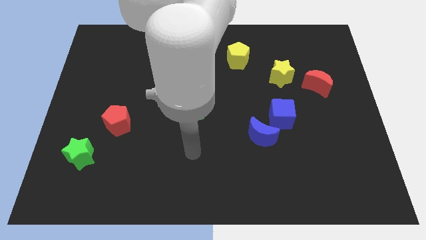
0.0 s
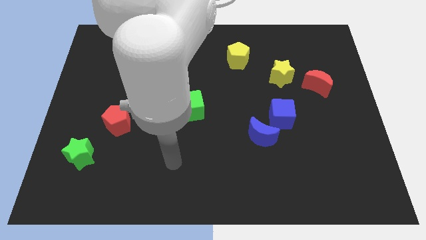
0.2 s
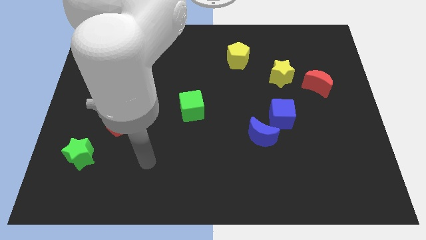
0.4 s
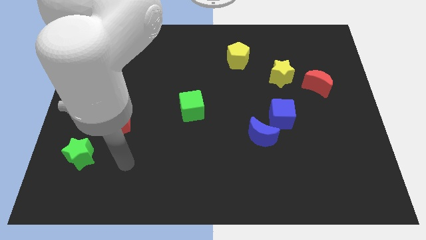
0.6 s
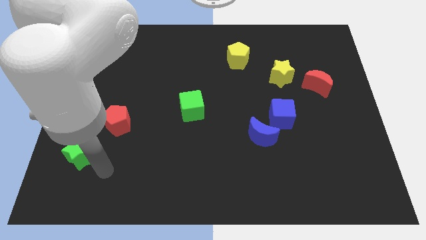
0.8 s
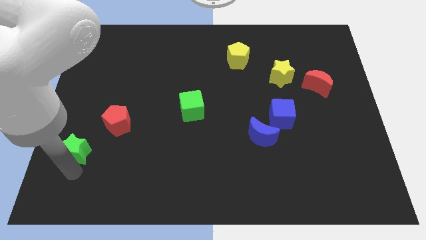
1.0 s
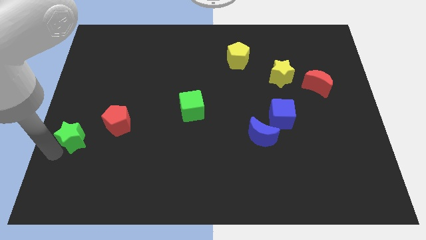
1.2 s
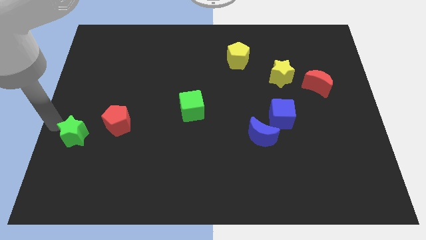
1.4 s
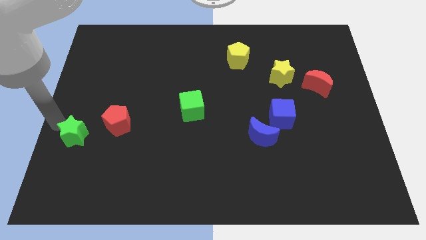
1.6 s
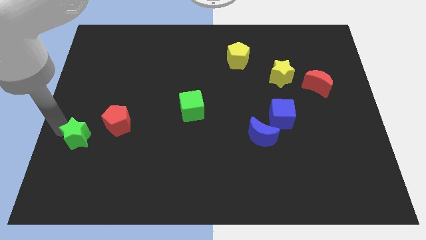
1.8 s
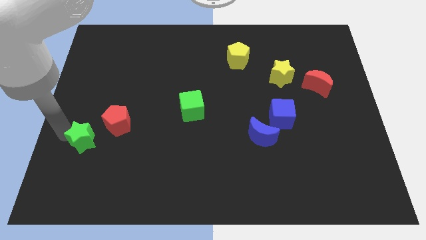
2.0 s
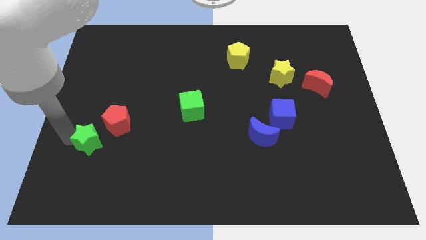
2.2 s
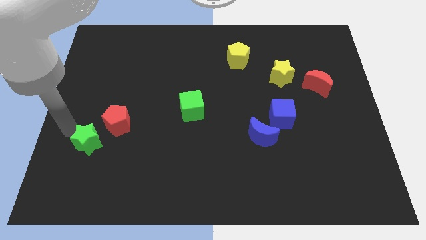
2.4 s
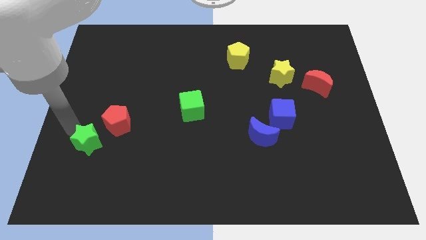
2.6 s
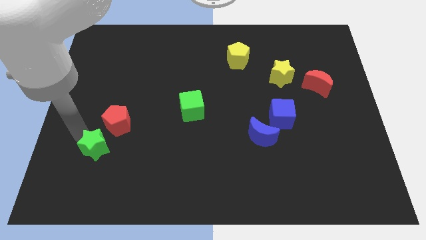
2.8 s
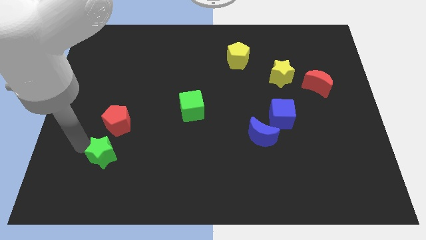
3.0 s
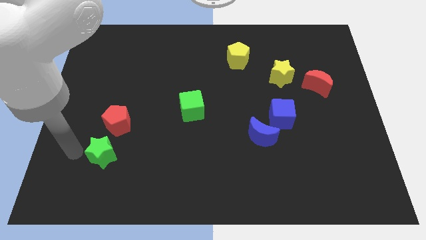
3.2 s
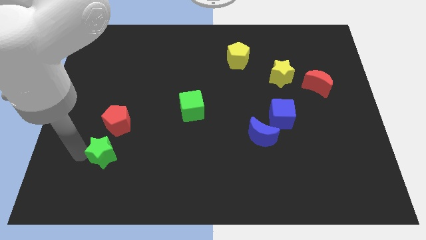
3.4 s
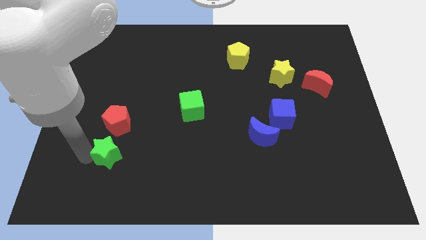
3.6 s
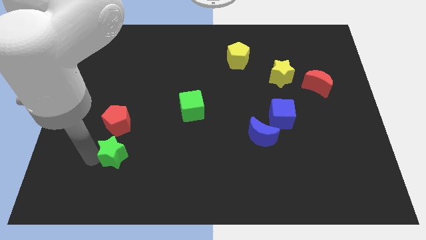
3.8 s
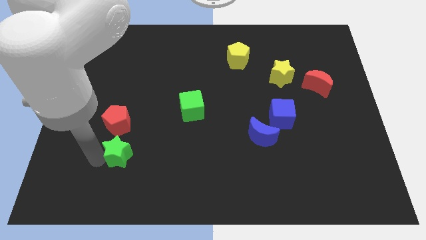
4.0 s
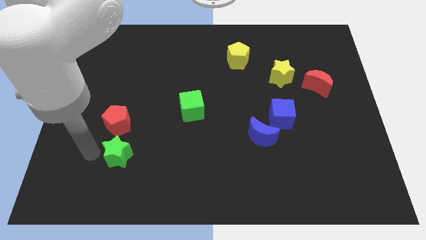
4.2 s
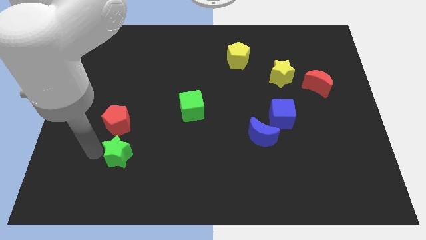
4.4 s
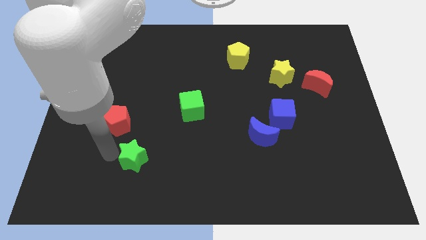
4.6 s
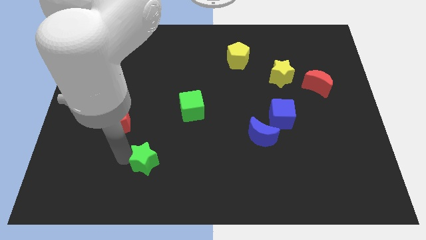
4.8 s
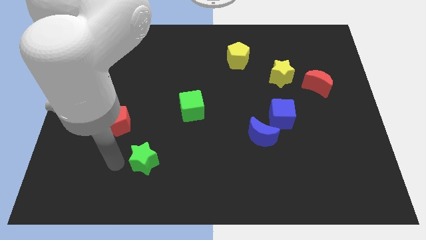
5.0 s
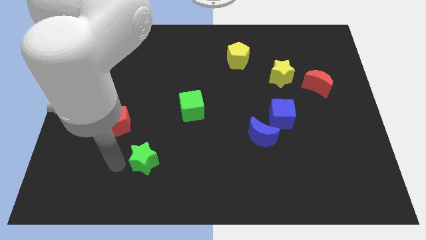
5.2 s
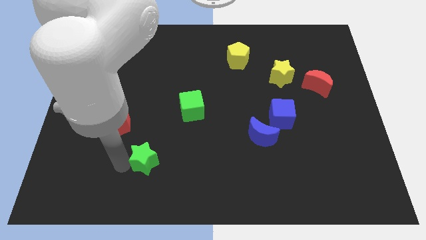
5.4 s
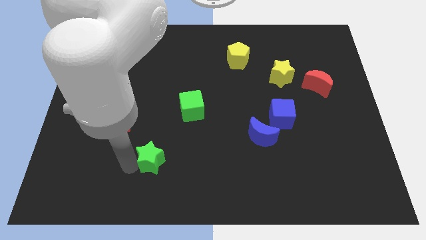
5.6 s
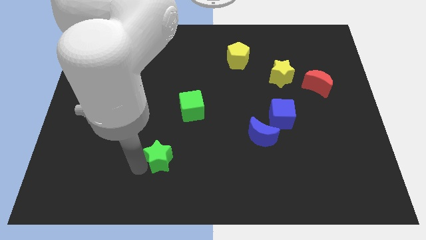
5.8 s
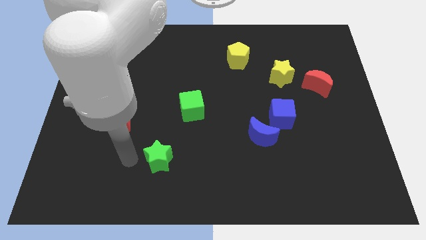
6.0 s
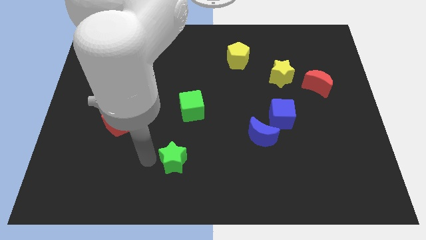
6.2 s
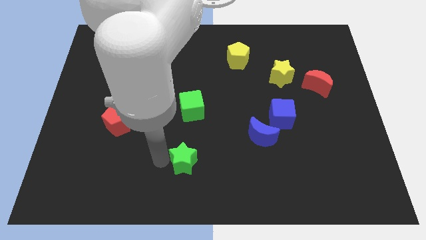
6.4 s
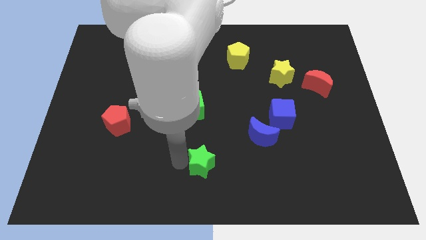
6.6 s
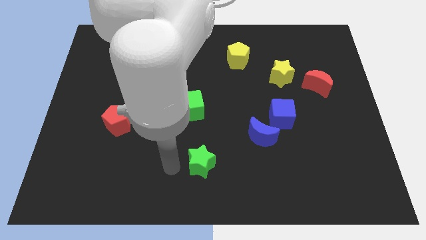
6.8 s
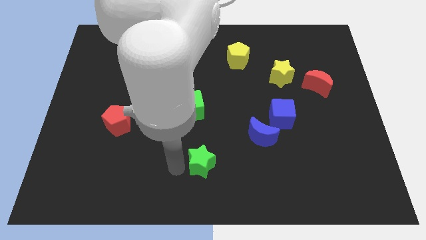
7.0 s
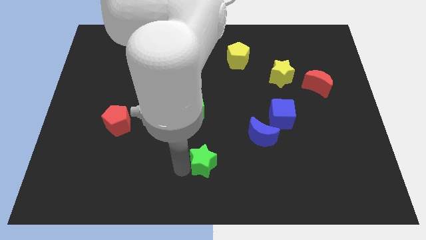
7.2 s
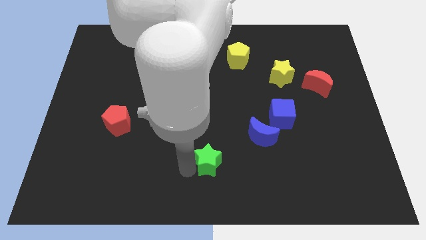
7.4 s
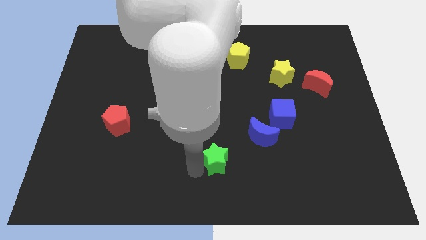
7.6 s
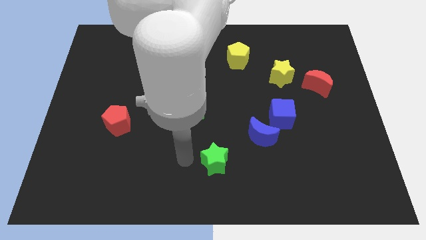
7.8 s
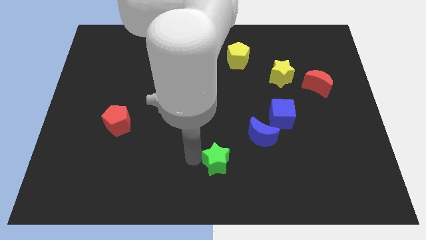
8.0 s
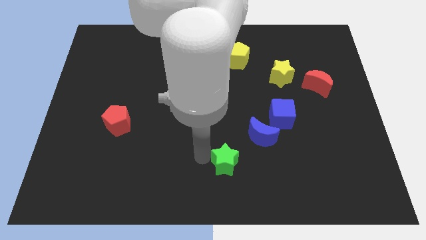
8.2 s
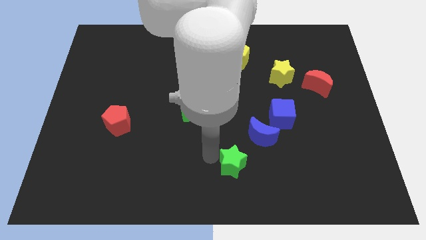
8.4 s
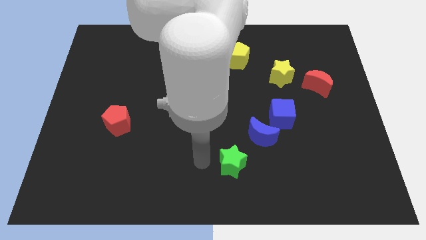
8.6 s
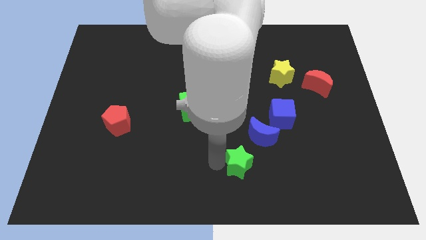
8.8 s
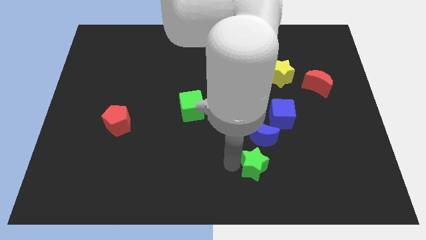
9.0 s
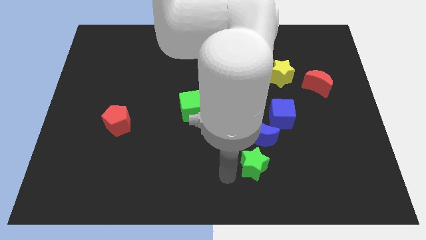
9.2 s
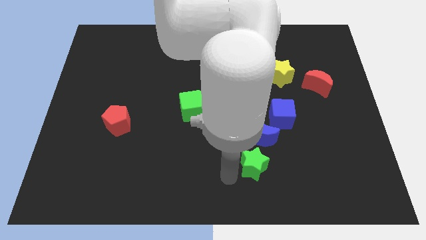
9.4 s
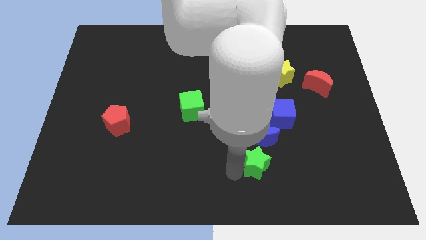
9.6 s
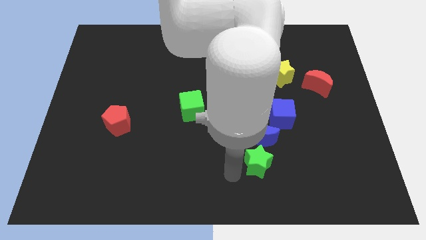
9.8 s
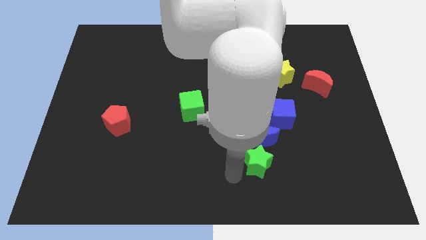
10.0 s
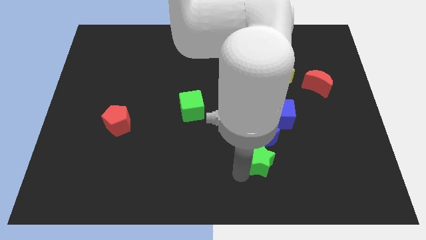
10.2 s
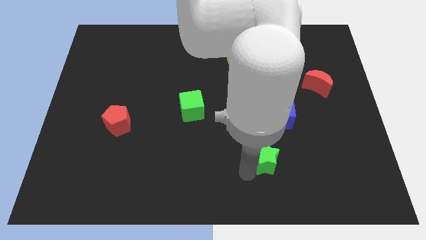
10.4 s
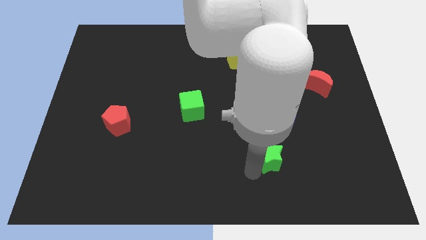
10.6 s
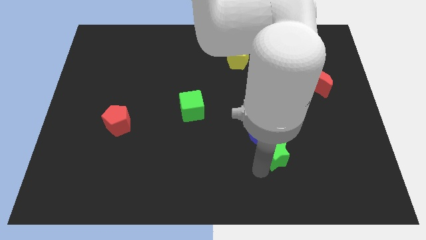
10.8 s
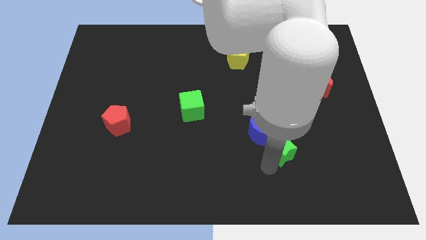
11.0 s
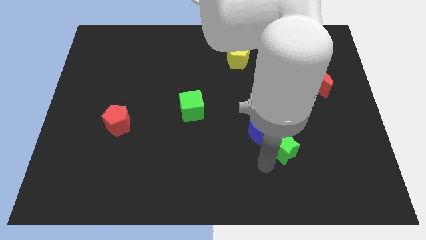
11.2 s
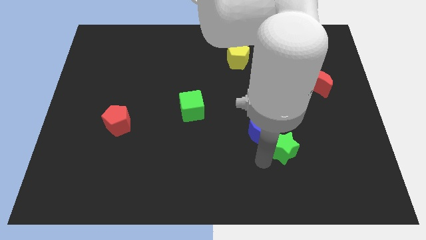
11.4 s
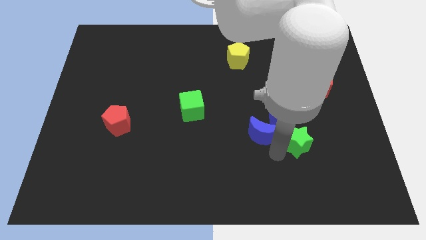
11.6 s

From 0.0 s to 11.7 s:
put the green star diagonally down and to the right of the blue cube

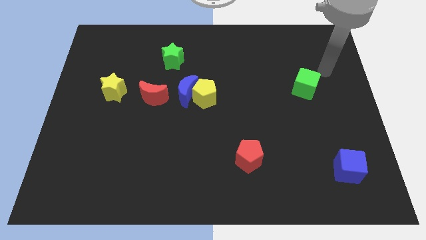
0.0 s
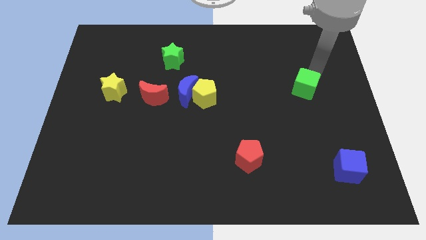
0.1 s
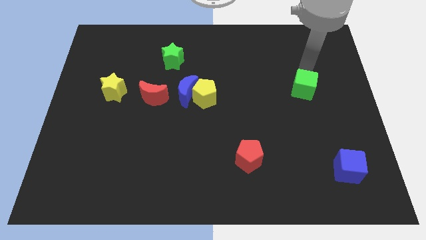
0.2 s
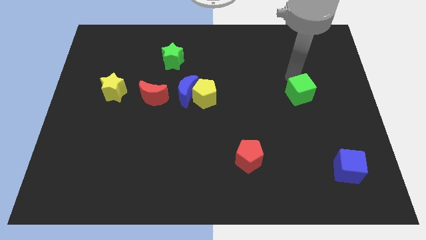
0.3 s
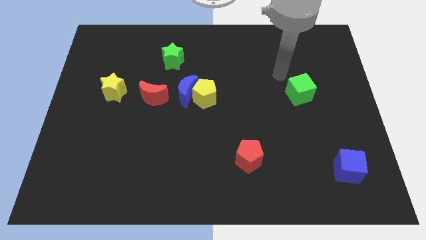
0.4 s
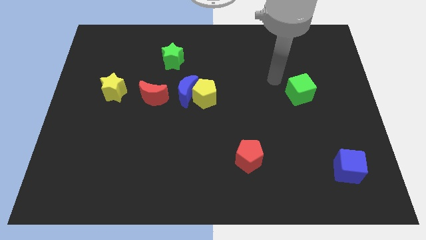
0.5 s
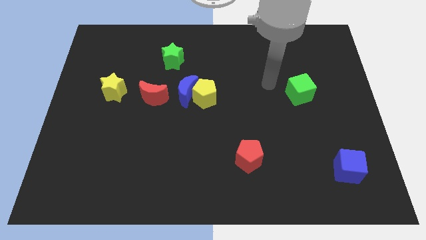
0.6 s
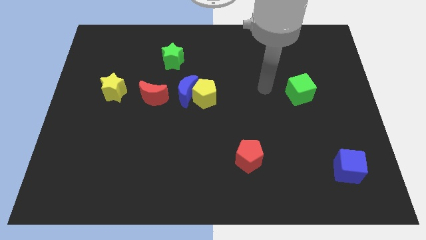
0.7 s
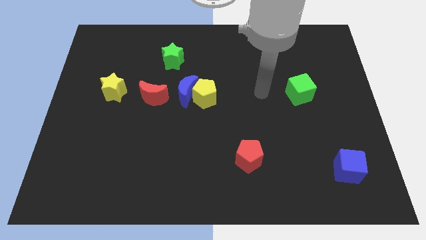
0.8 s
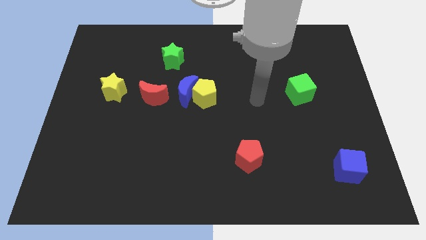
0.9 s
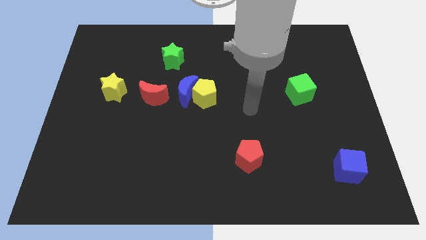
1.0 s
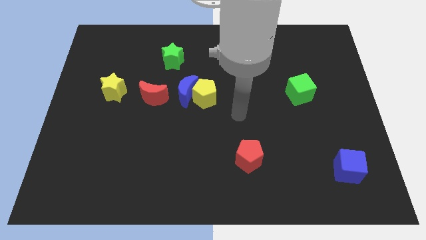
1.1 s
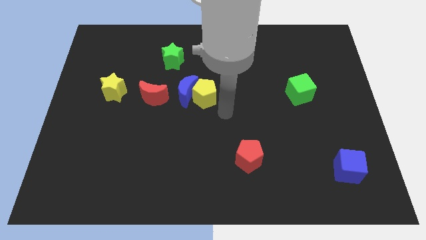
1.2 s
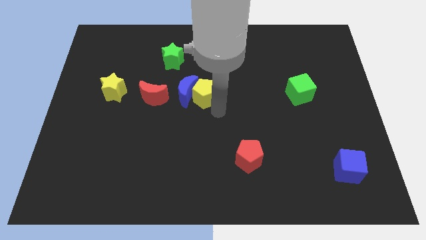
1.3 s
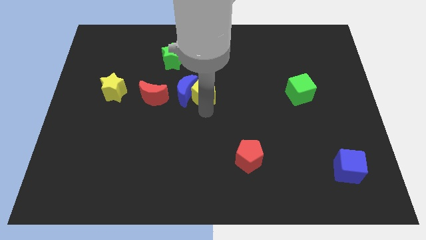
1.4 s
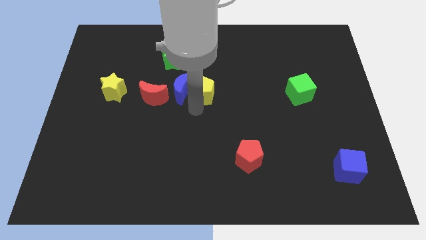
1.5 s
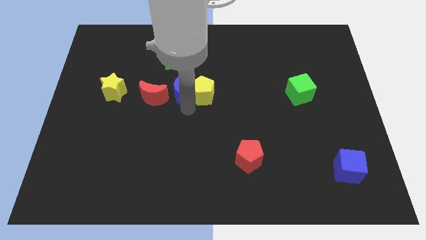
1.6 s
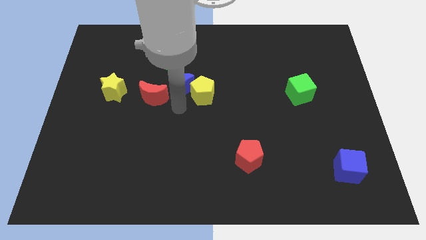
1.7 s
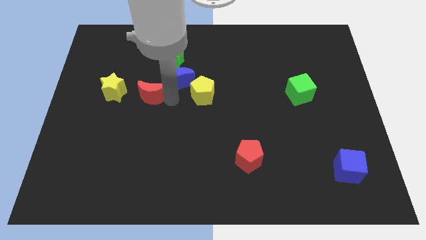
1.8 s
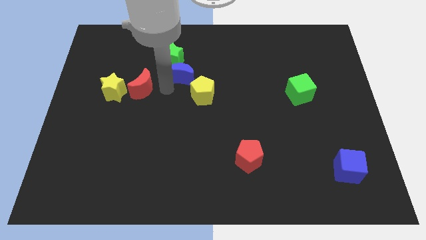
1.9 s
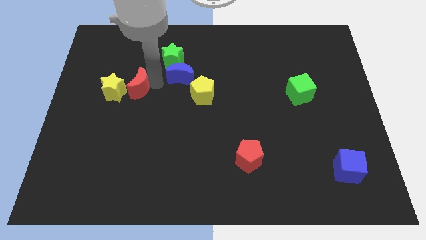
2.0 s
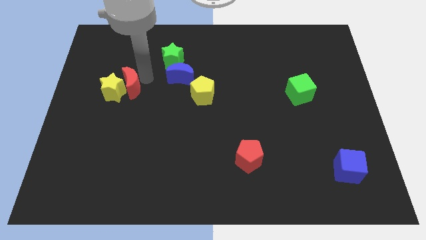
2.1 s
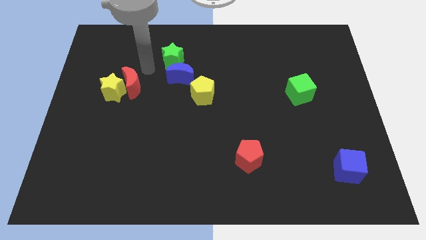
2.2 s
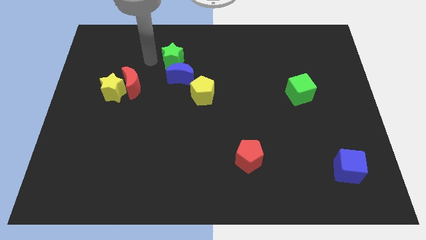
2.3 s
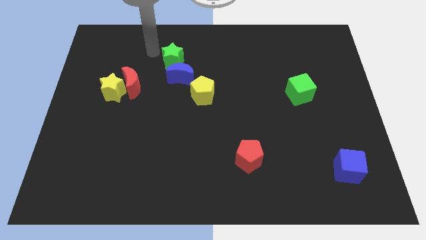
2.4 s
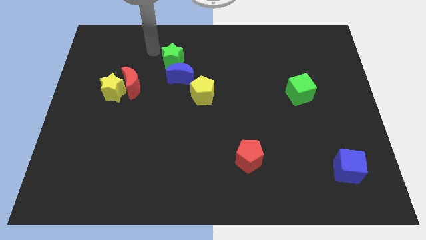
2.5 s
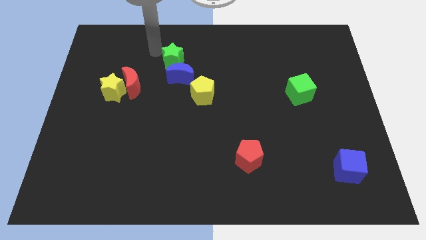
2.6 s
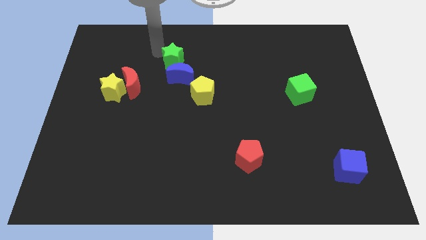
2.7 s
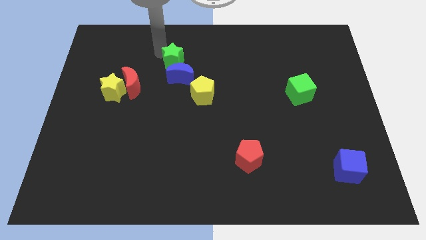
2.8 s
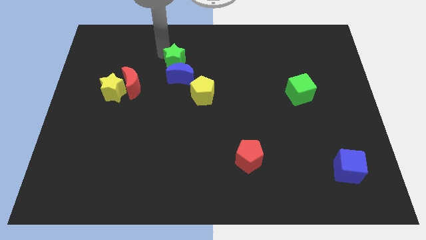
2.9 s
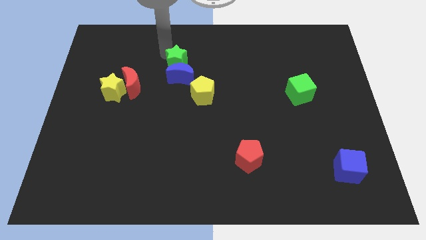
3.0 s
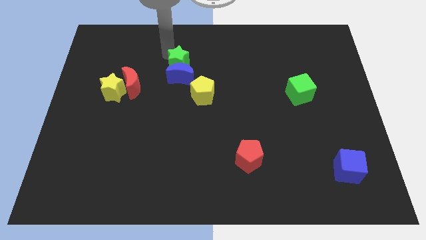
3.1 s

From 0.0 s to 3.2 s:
move the green star to the top right of the blue moon
